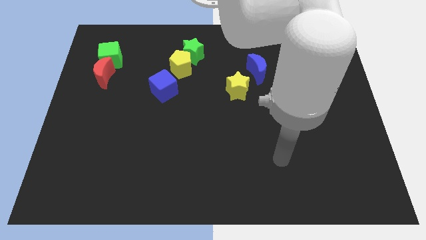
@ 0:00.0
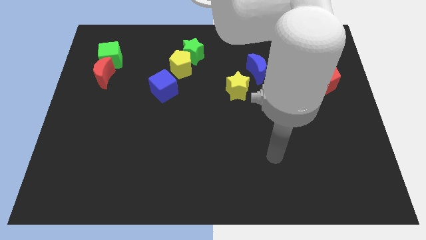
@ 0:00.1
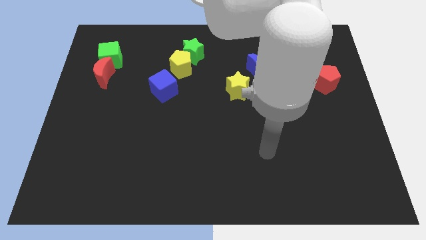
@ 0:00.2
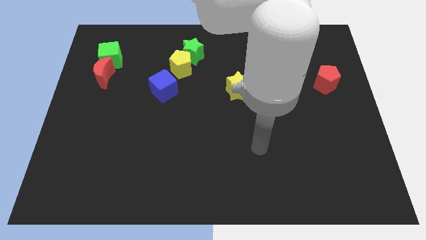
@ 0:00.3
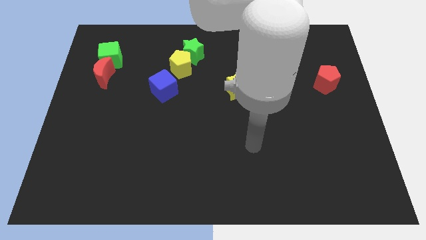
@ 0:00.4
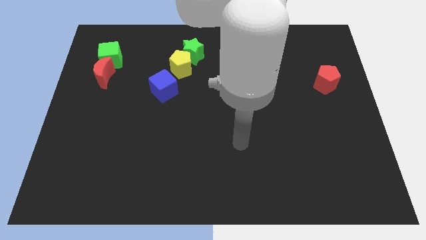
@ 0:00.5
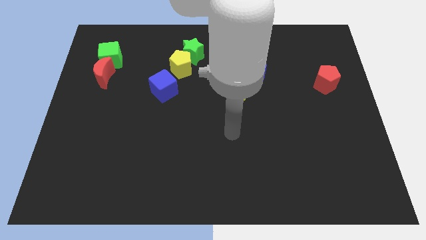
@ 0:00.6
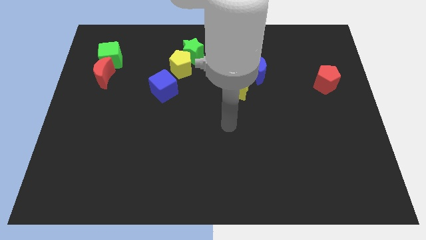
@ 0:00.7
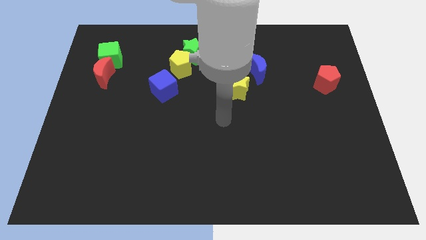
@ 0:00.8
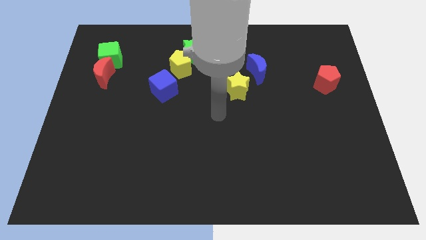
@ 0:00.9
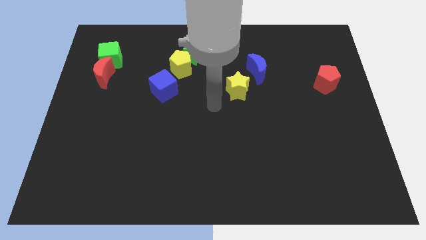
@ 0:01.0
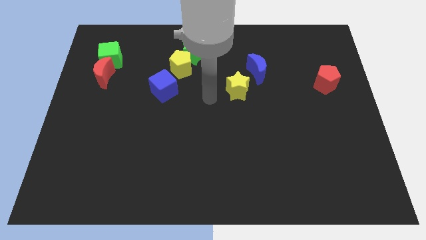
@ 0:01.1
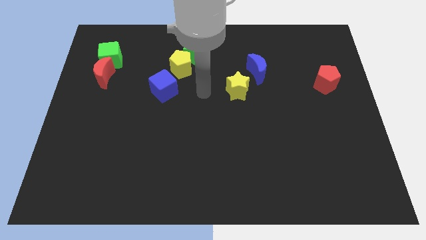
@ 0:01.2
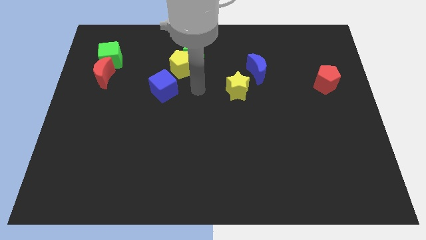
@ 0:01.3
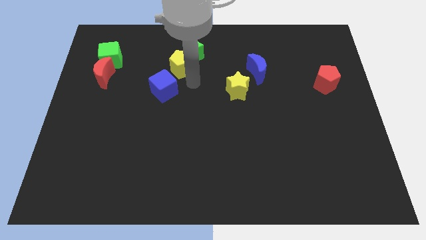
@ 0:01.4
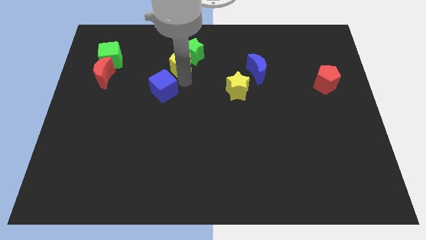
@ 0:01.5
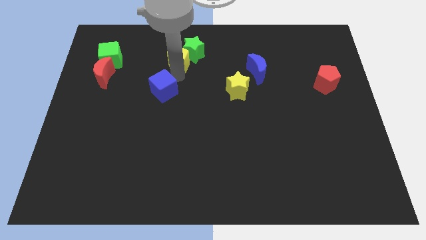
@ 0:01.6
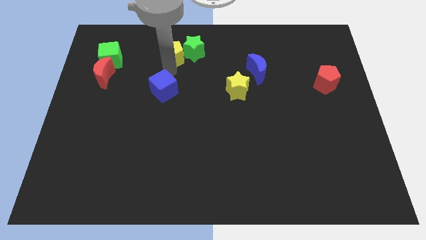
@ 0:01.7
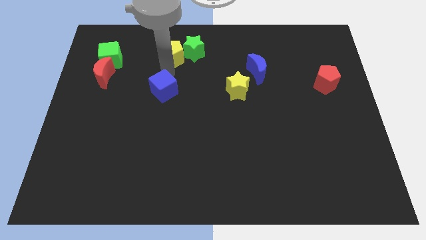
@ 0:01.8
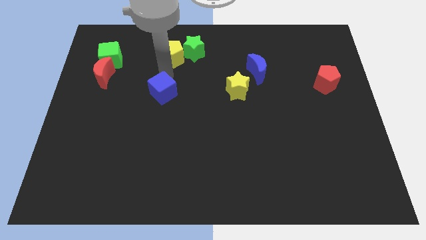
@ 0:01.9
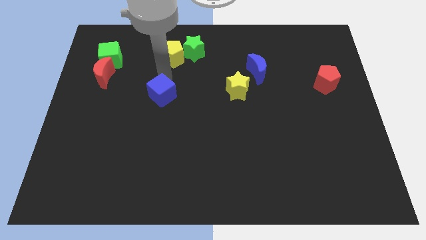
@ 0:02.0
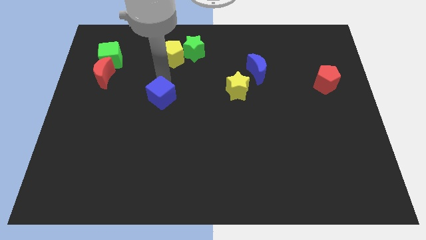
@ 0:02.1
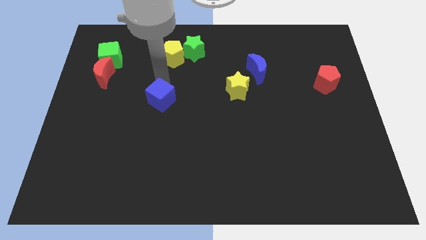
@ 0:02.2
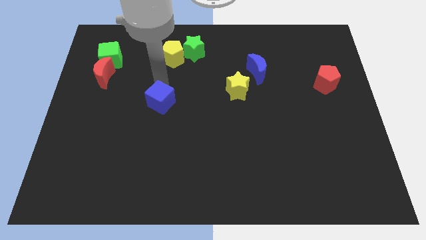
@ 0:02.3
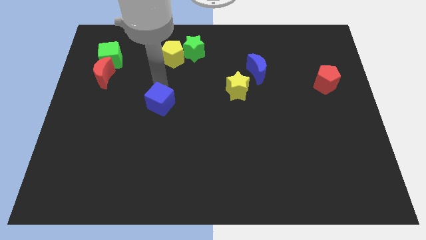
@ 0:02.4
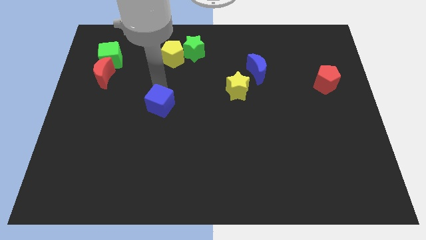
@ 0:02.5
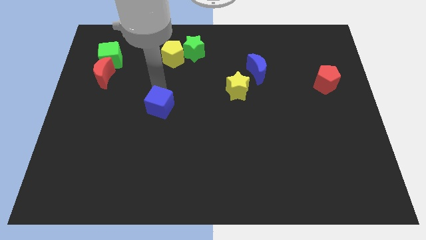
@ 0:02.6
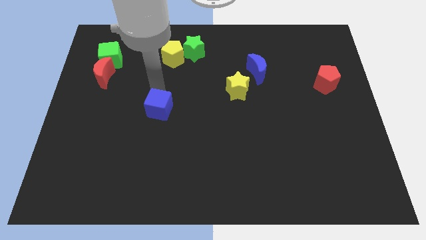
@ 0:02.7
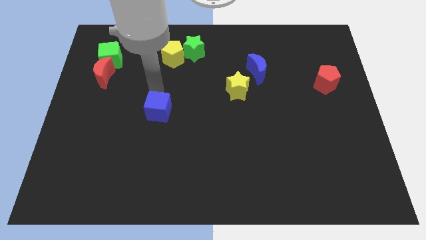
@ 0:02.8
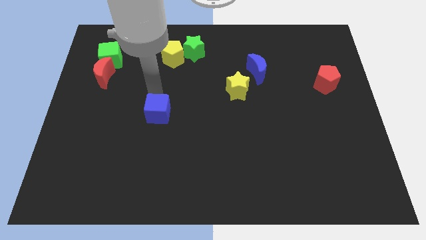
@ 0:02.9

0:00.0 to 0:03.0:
push the blue cube slightly down

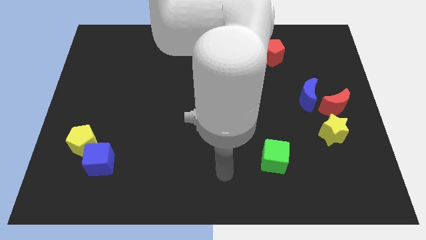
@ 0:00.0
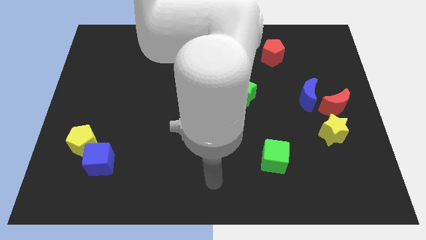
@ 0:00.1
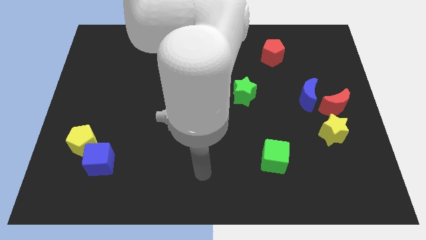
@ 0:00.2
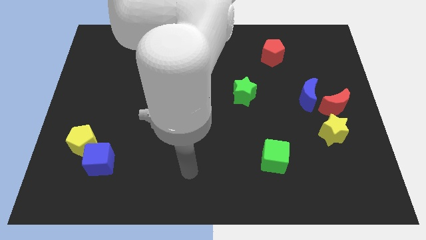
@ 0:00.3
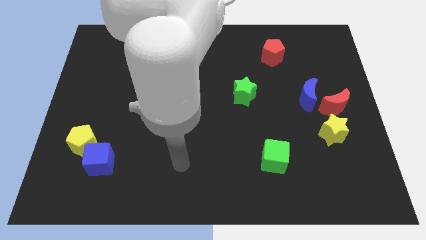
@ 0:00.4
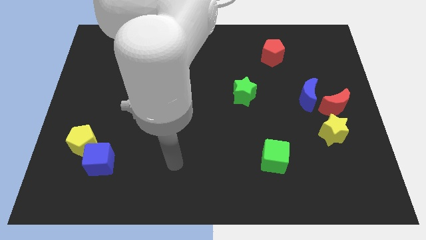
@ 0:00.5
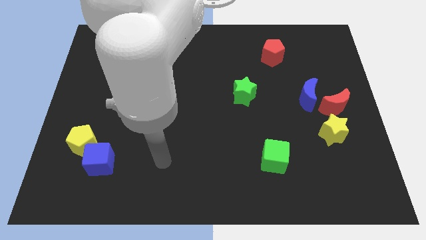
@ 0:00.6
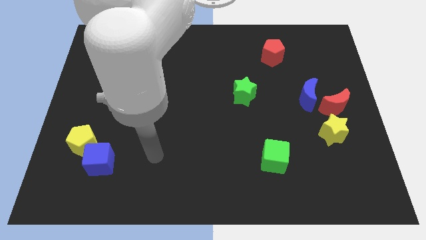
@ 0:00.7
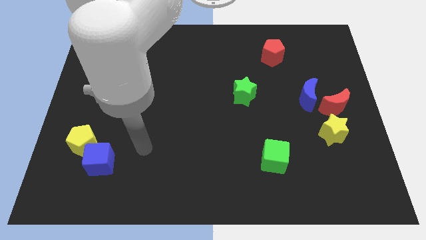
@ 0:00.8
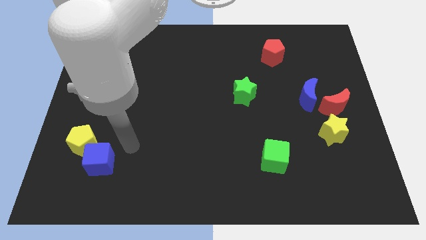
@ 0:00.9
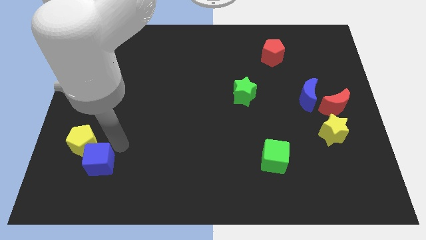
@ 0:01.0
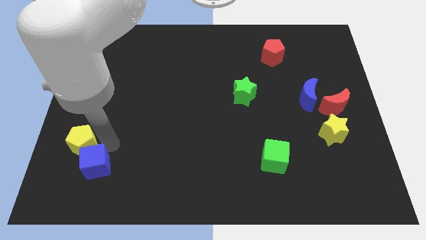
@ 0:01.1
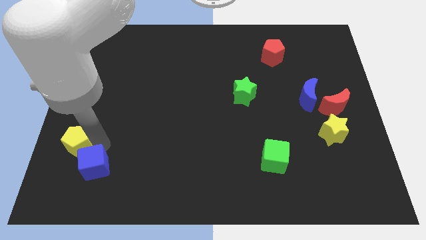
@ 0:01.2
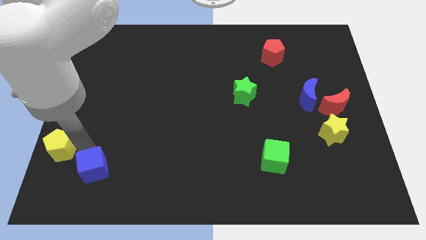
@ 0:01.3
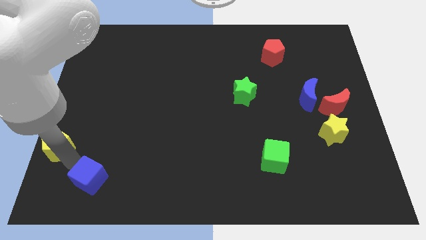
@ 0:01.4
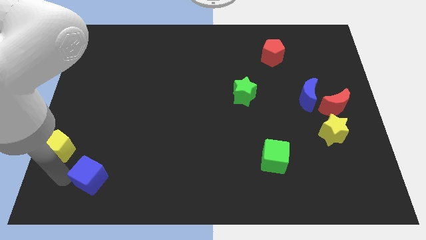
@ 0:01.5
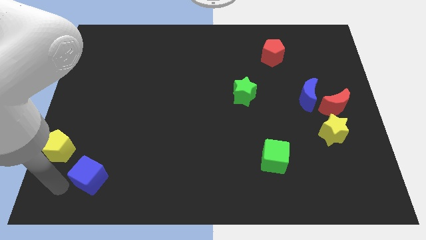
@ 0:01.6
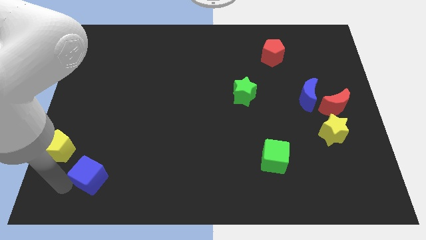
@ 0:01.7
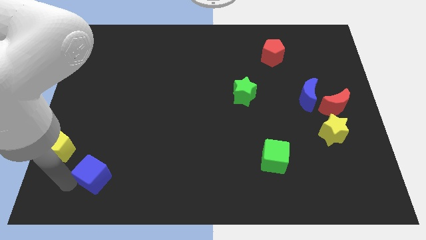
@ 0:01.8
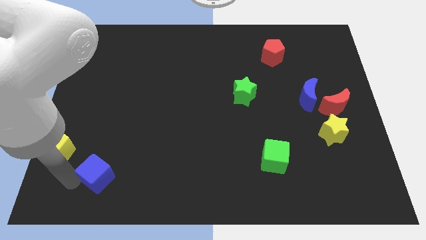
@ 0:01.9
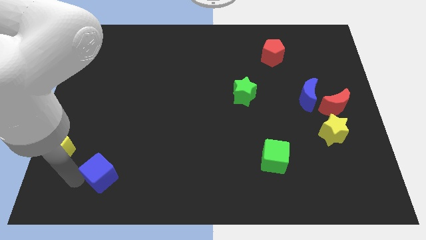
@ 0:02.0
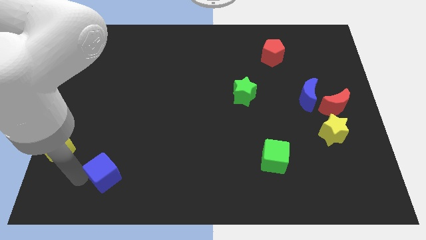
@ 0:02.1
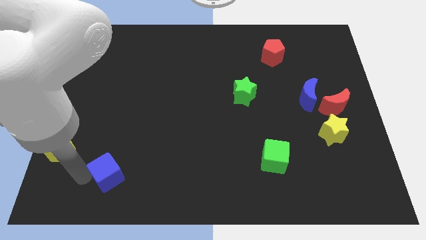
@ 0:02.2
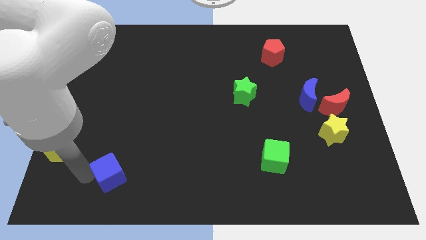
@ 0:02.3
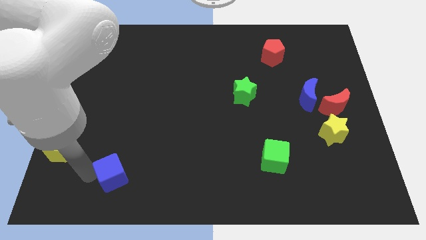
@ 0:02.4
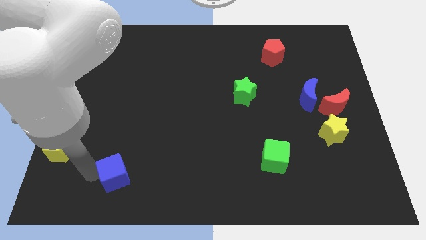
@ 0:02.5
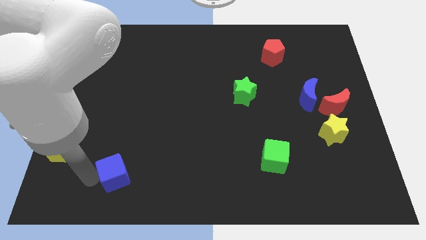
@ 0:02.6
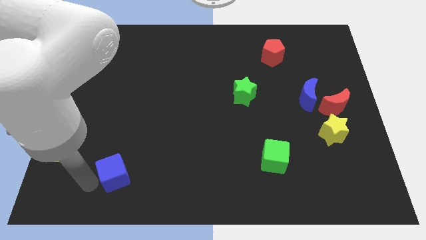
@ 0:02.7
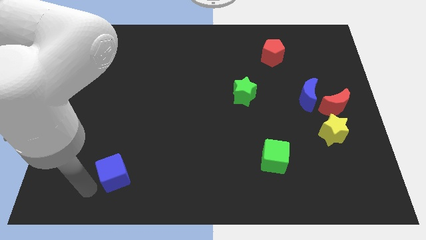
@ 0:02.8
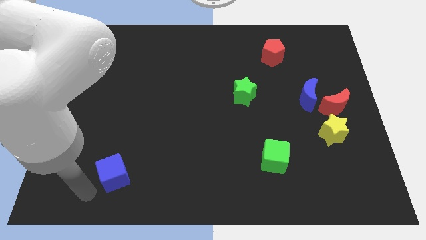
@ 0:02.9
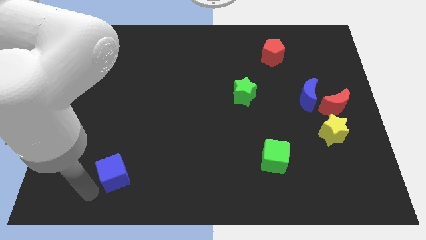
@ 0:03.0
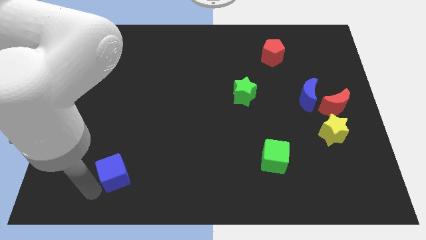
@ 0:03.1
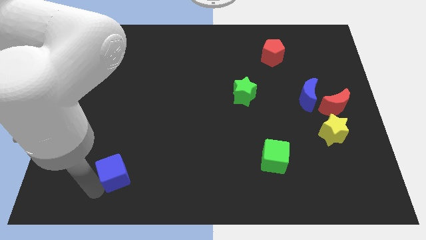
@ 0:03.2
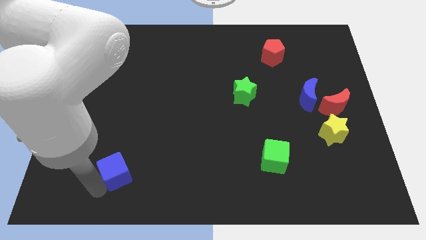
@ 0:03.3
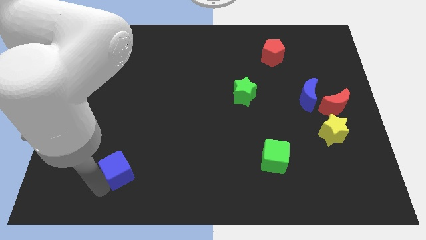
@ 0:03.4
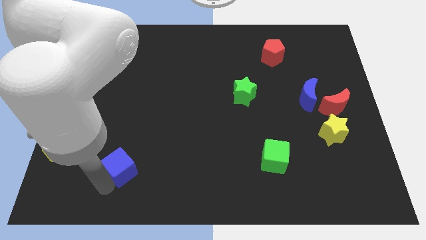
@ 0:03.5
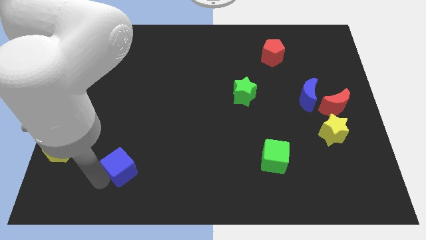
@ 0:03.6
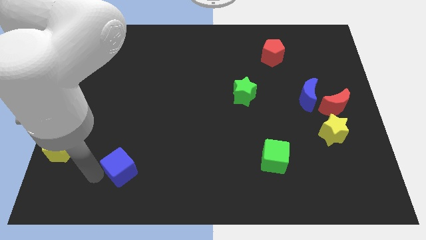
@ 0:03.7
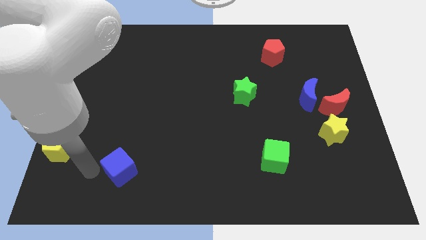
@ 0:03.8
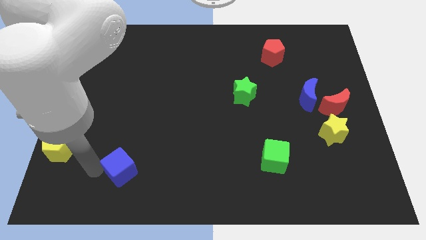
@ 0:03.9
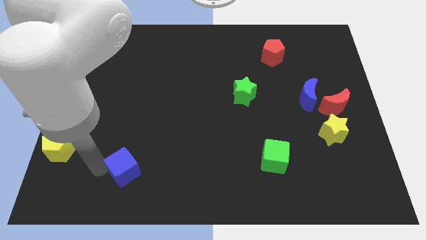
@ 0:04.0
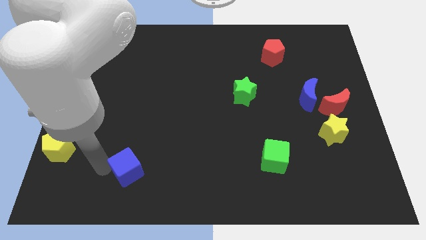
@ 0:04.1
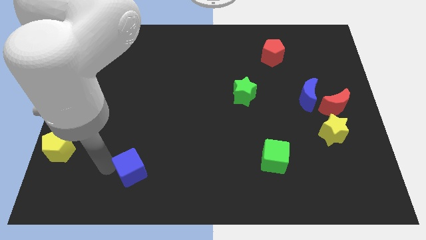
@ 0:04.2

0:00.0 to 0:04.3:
slide the blue cube slightly to the right

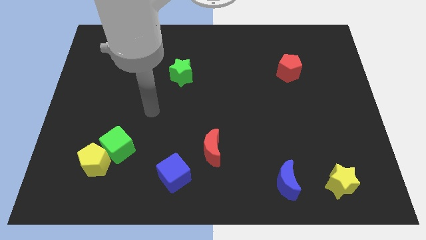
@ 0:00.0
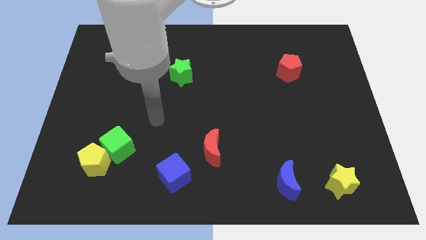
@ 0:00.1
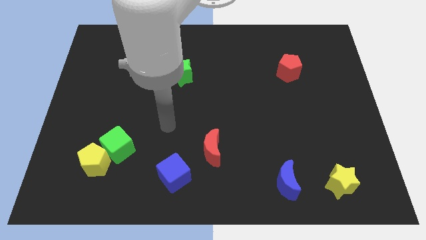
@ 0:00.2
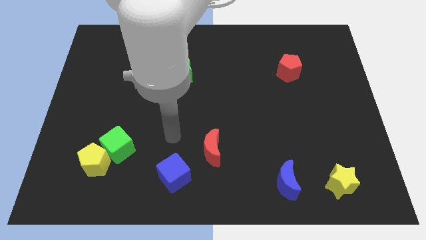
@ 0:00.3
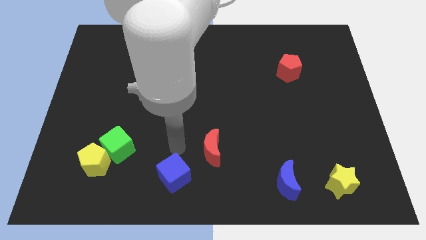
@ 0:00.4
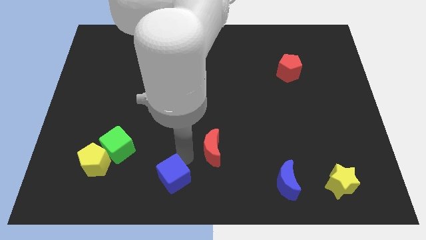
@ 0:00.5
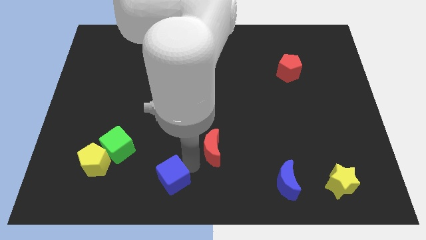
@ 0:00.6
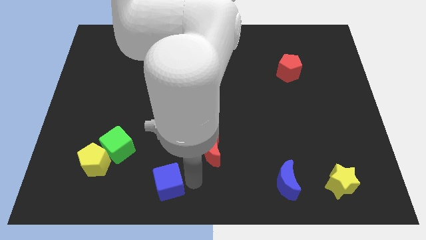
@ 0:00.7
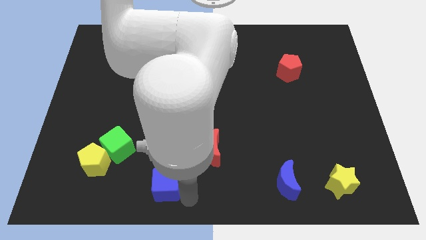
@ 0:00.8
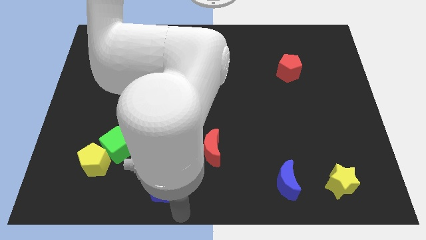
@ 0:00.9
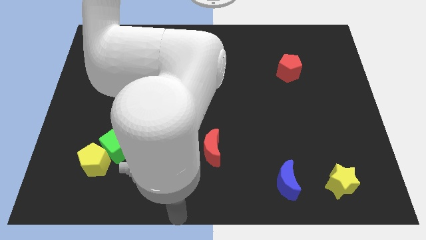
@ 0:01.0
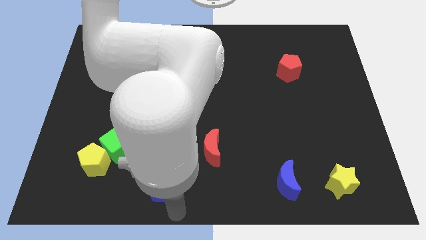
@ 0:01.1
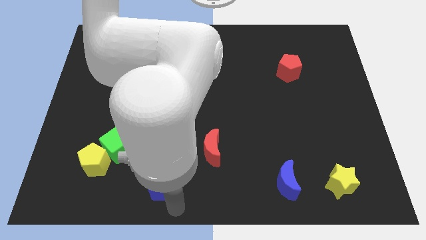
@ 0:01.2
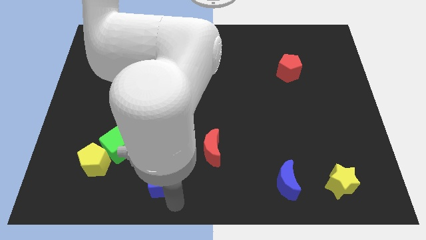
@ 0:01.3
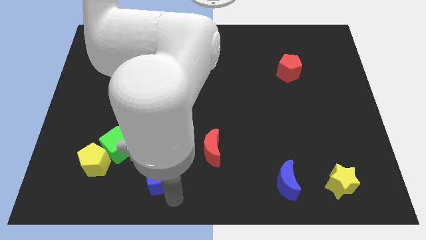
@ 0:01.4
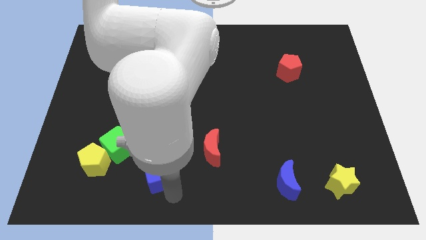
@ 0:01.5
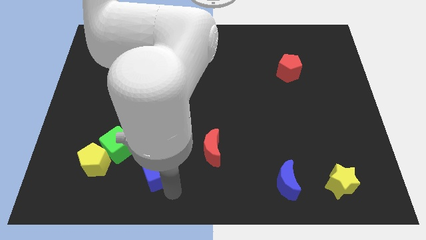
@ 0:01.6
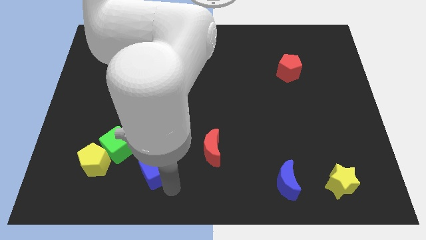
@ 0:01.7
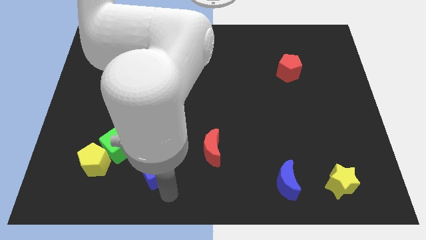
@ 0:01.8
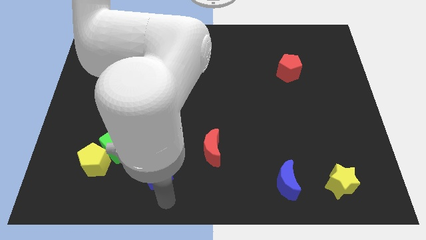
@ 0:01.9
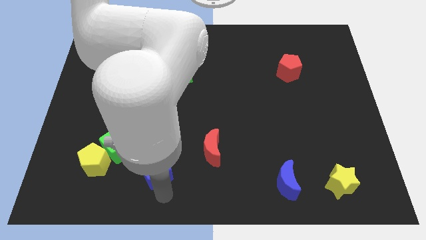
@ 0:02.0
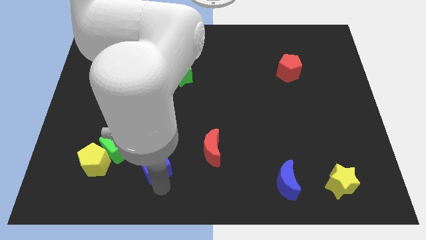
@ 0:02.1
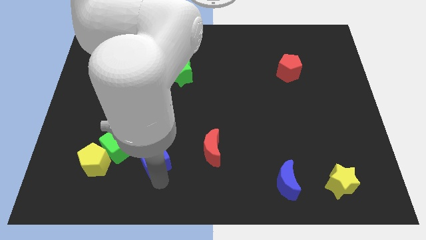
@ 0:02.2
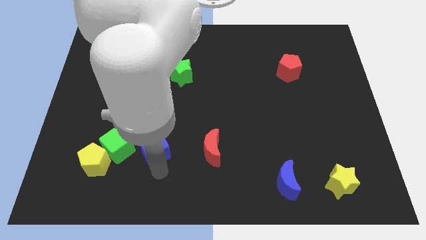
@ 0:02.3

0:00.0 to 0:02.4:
slightly push the blue cube upwards and then left
